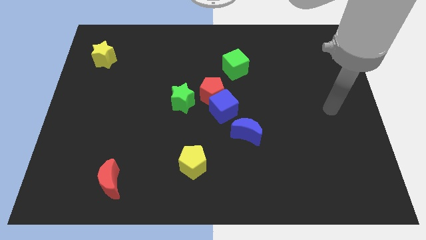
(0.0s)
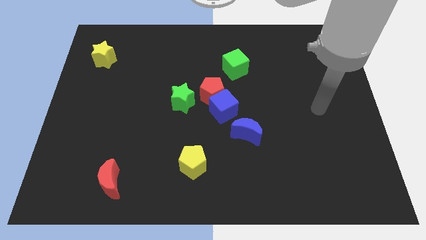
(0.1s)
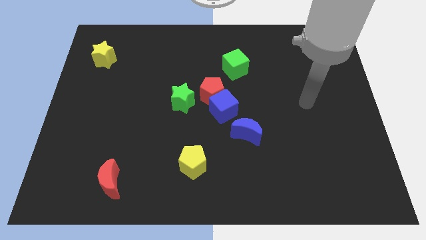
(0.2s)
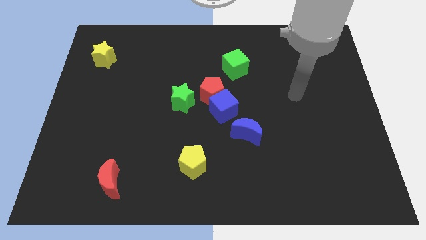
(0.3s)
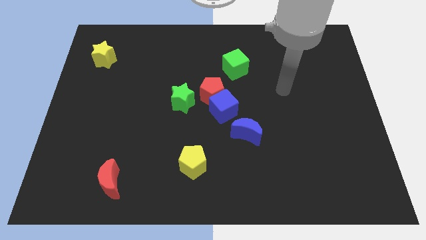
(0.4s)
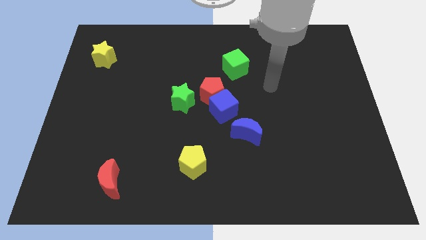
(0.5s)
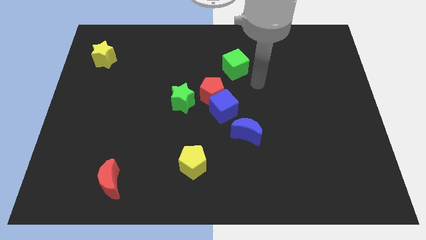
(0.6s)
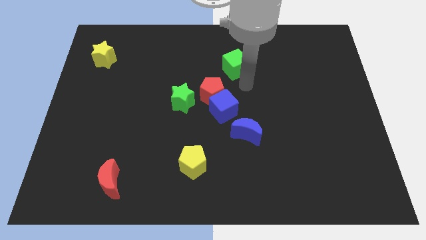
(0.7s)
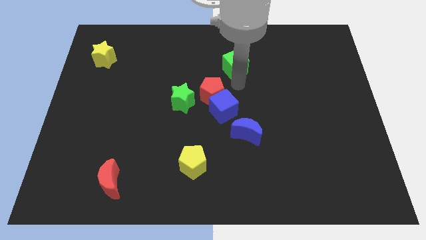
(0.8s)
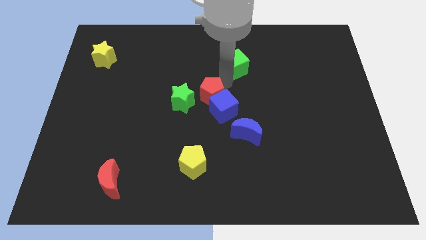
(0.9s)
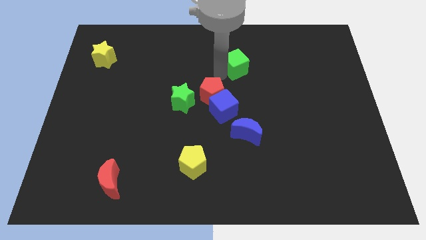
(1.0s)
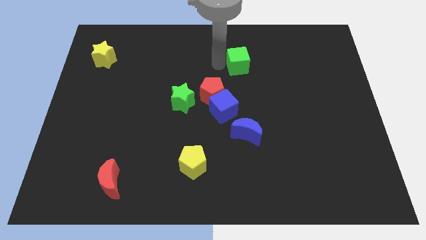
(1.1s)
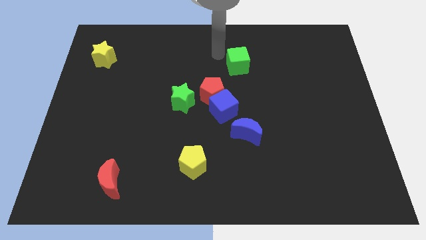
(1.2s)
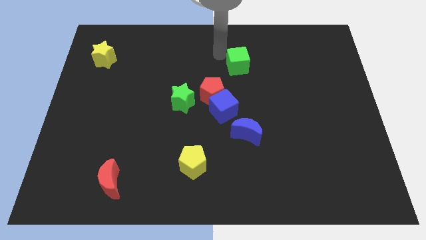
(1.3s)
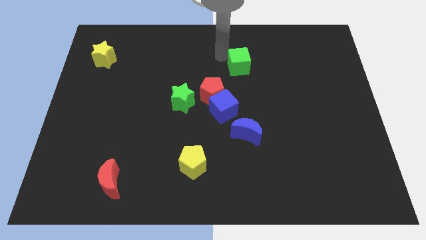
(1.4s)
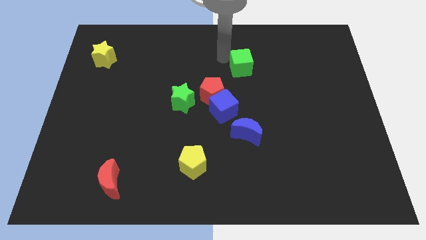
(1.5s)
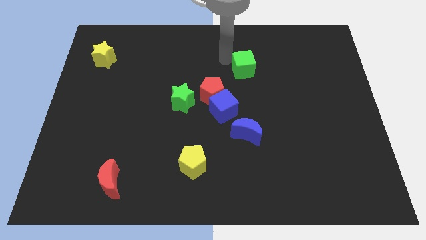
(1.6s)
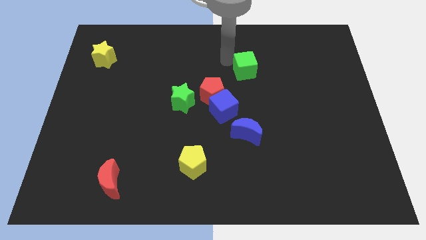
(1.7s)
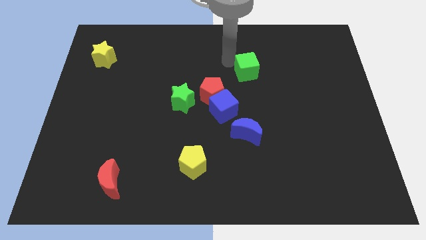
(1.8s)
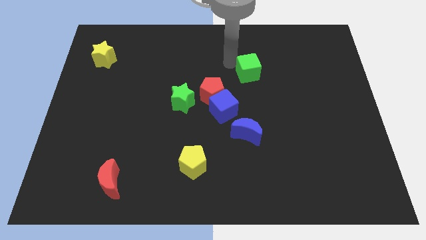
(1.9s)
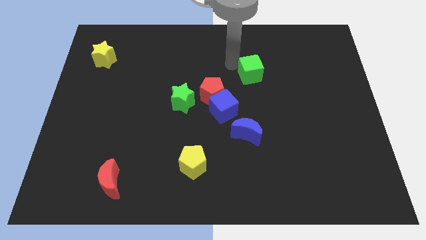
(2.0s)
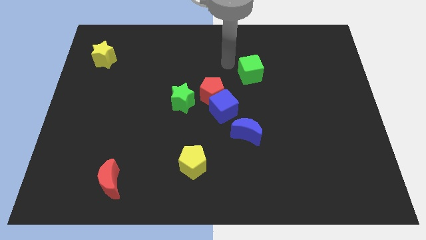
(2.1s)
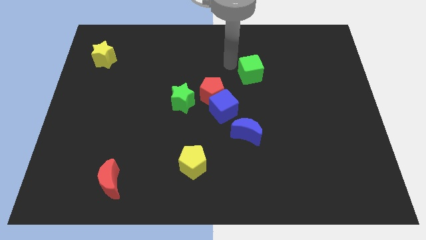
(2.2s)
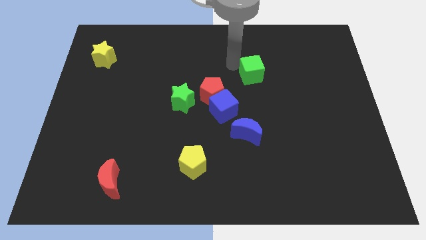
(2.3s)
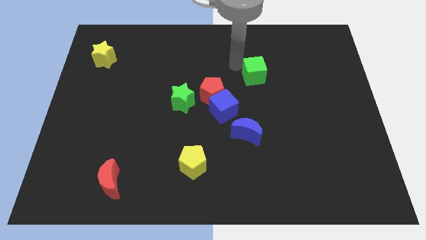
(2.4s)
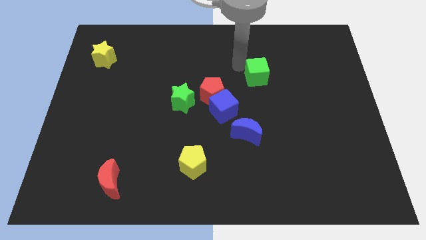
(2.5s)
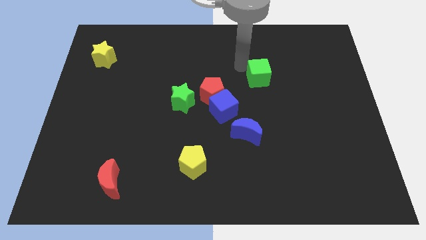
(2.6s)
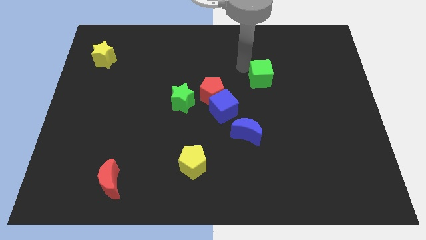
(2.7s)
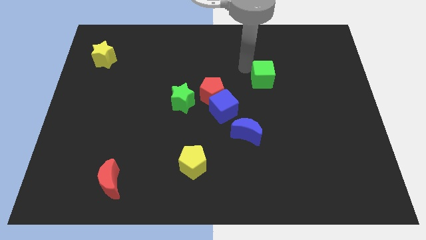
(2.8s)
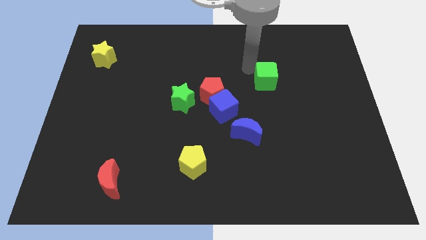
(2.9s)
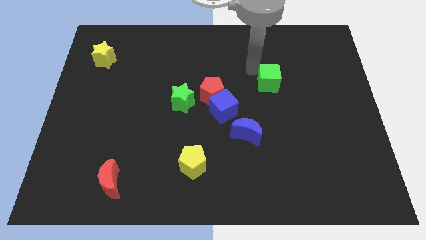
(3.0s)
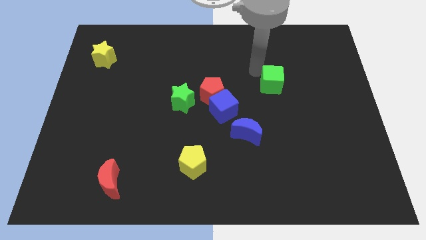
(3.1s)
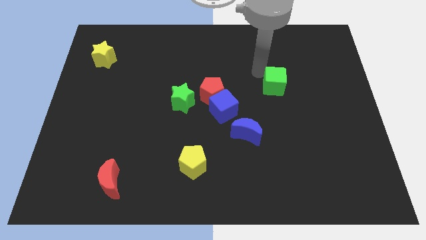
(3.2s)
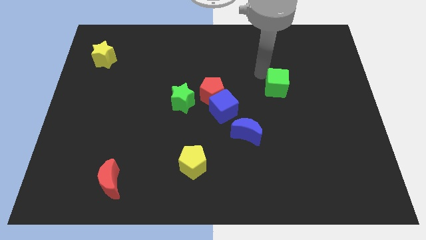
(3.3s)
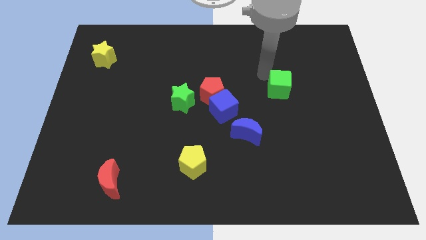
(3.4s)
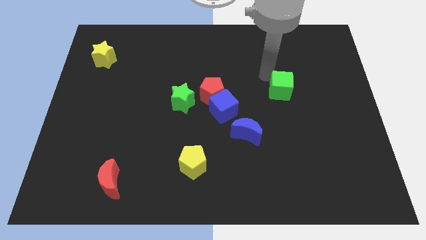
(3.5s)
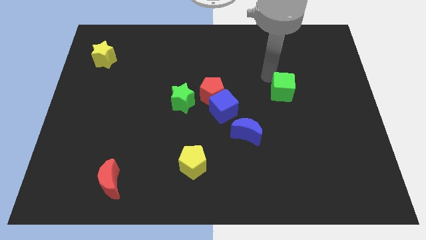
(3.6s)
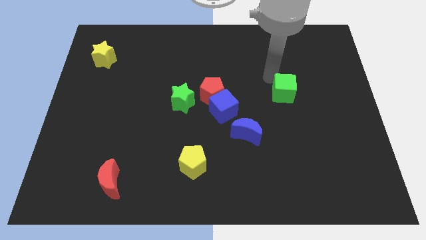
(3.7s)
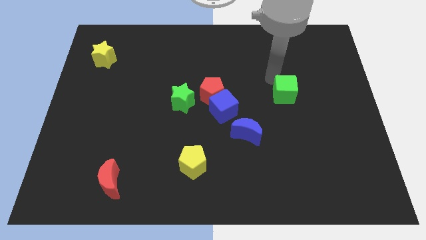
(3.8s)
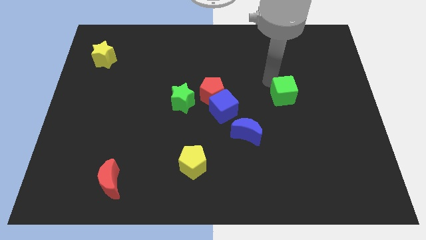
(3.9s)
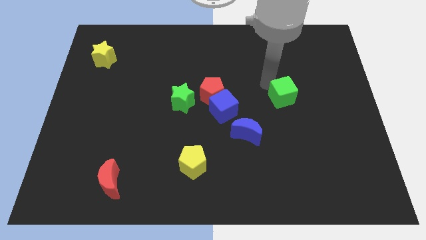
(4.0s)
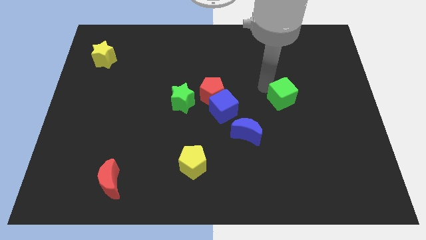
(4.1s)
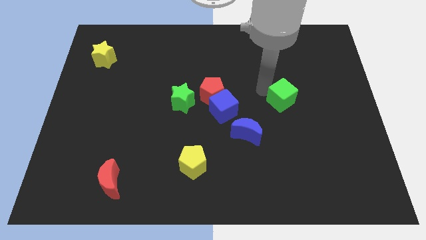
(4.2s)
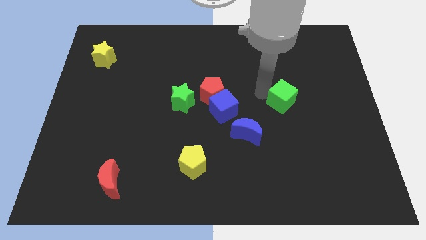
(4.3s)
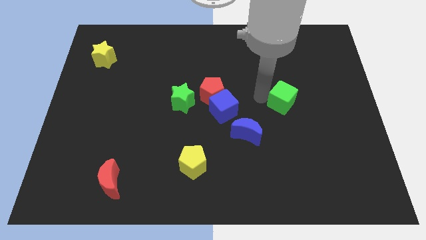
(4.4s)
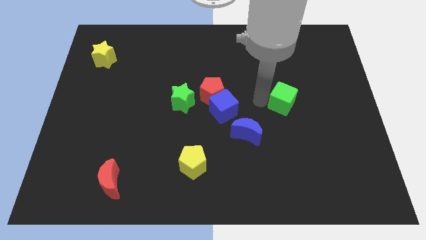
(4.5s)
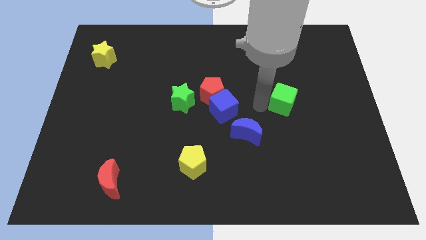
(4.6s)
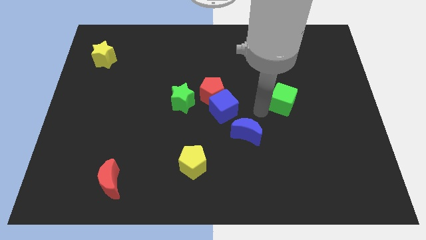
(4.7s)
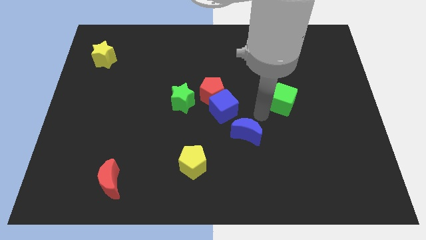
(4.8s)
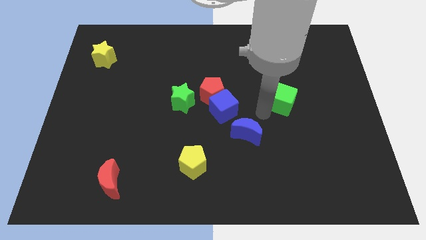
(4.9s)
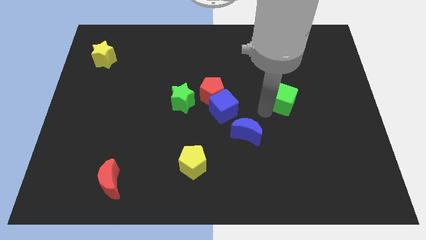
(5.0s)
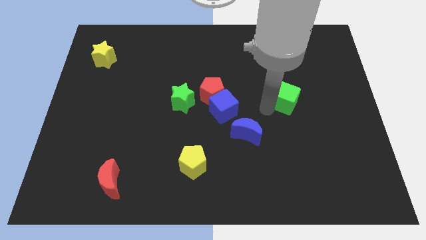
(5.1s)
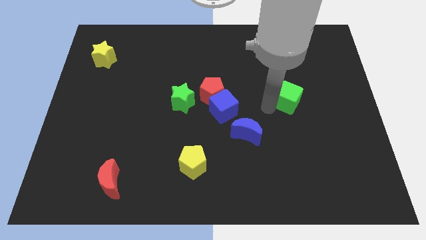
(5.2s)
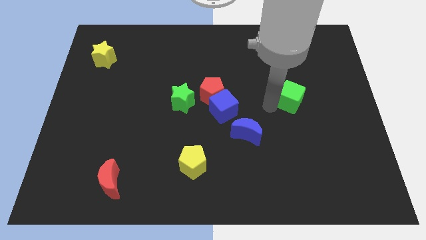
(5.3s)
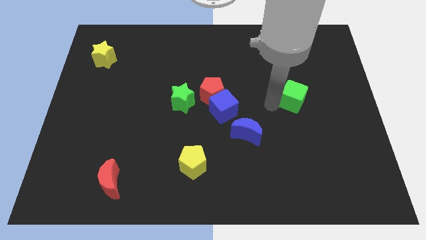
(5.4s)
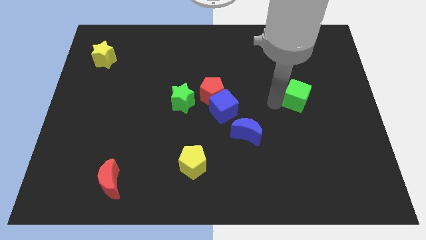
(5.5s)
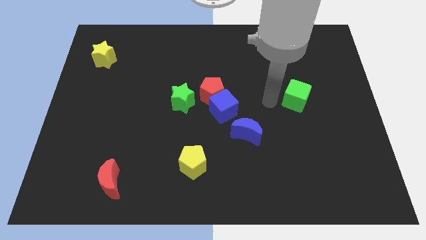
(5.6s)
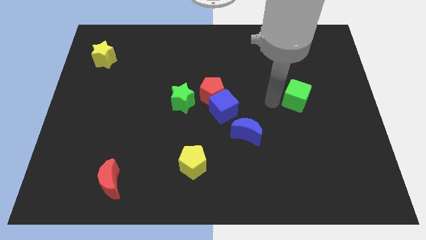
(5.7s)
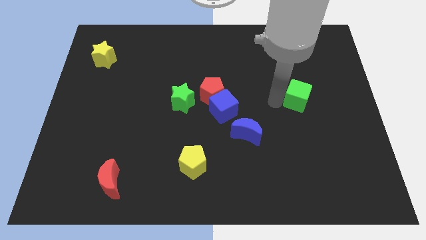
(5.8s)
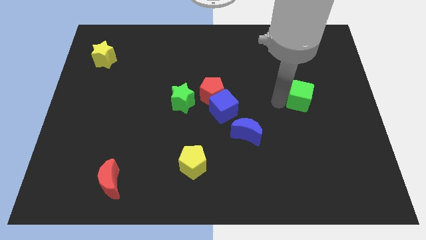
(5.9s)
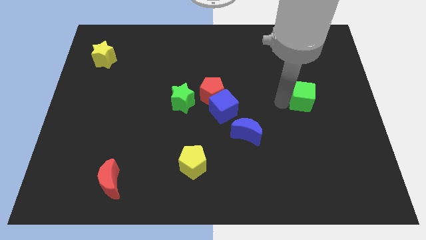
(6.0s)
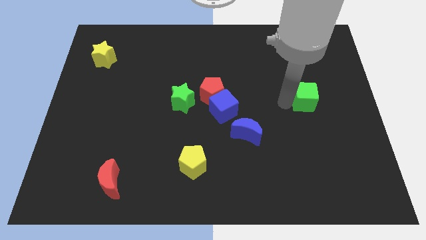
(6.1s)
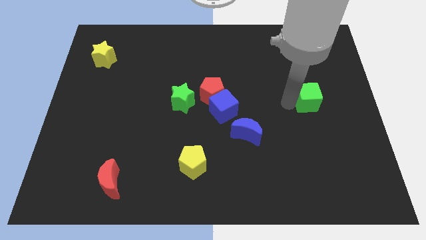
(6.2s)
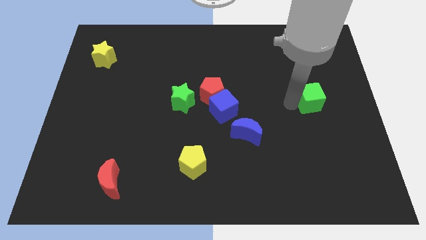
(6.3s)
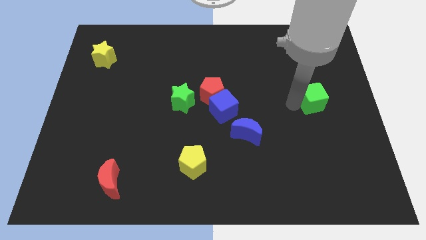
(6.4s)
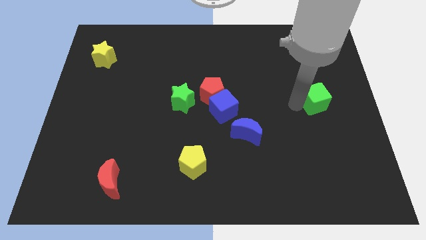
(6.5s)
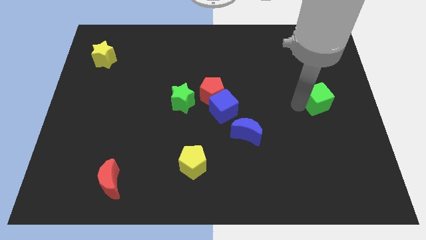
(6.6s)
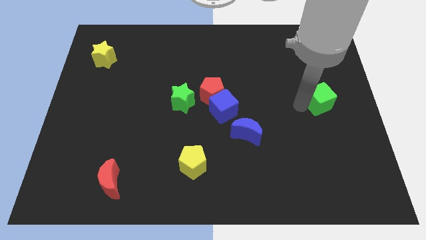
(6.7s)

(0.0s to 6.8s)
push the green cube to the right side
